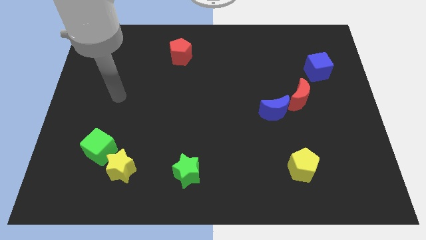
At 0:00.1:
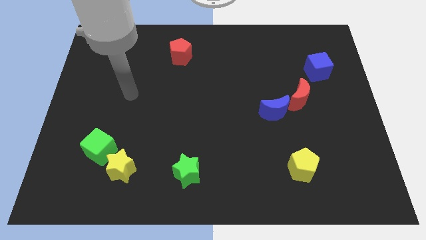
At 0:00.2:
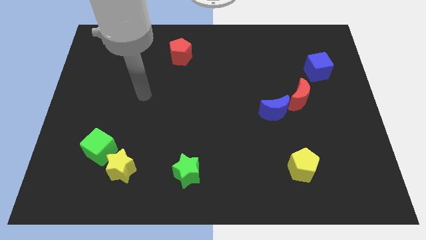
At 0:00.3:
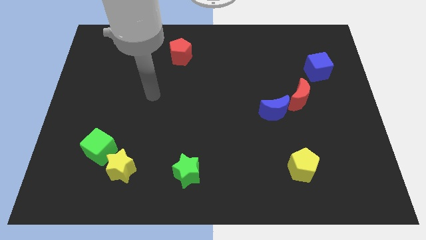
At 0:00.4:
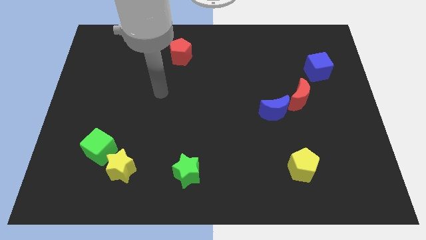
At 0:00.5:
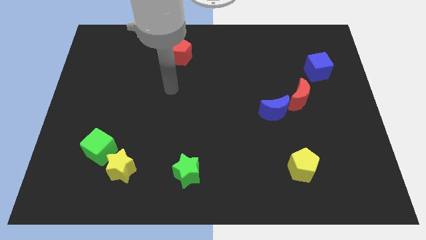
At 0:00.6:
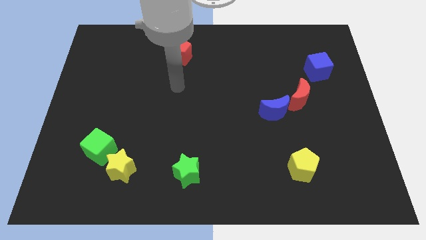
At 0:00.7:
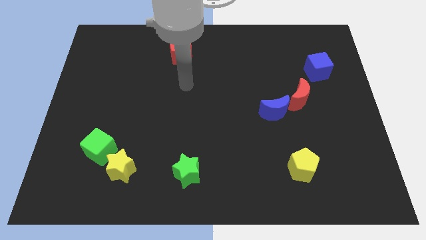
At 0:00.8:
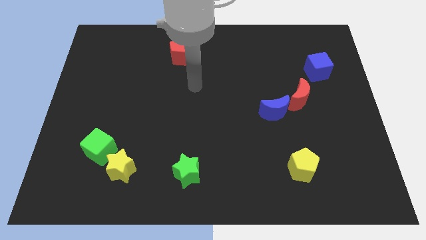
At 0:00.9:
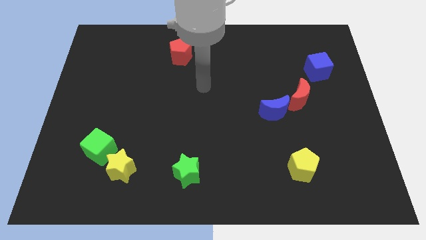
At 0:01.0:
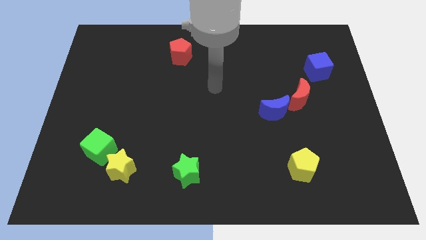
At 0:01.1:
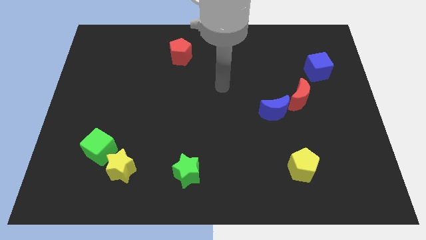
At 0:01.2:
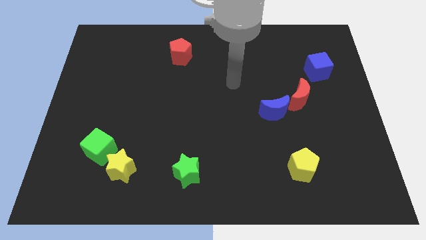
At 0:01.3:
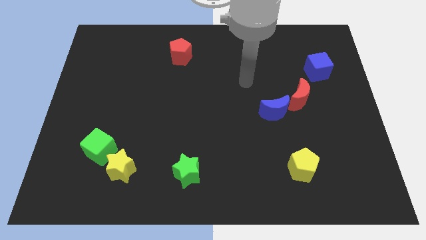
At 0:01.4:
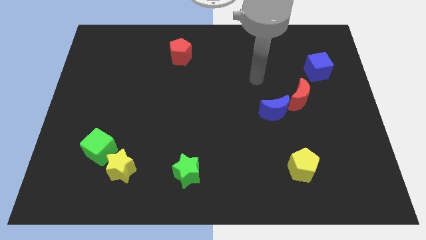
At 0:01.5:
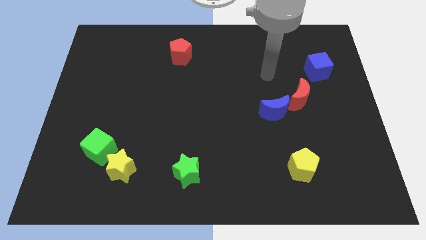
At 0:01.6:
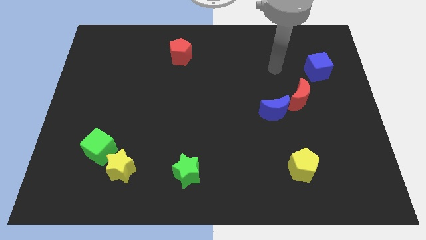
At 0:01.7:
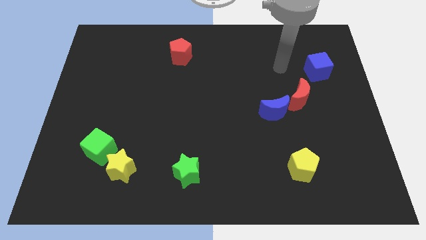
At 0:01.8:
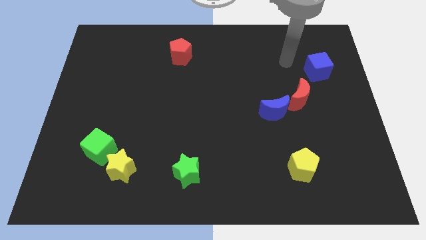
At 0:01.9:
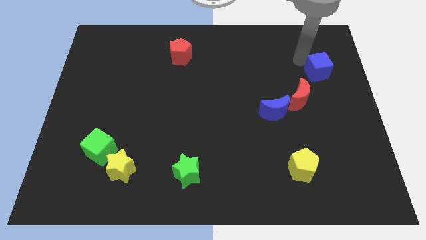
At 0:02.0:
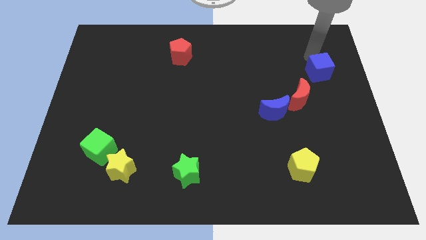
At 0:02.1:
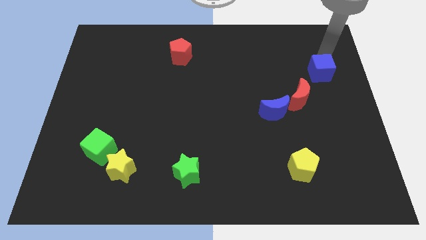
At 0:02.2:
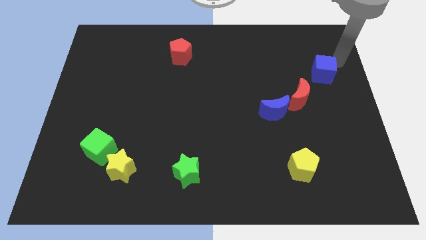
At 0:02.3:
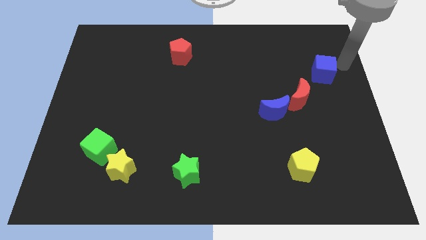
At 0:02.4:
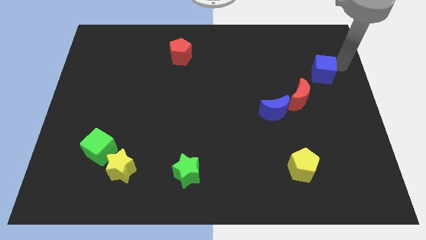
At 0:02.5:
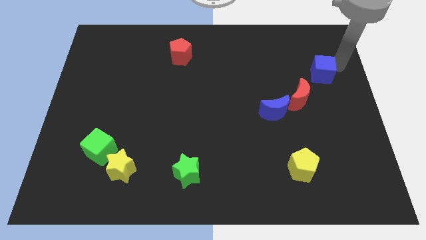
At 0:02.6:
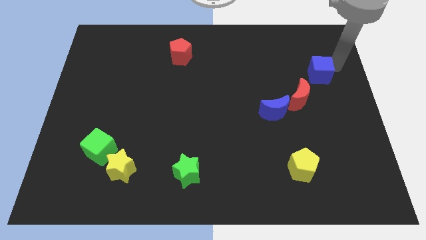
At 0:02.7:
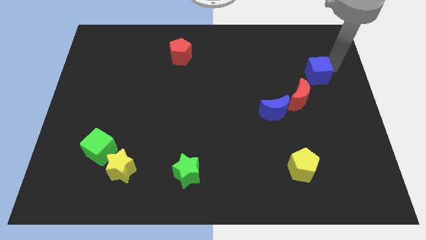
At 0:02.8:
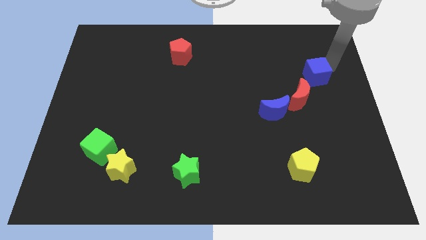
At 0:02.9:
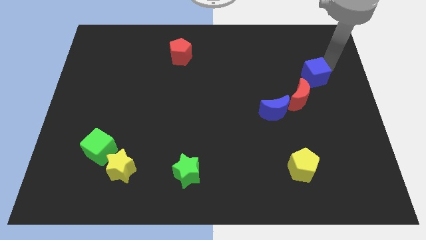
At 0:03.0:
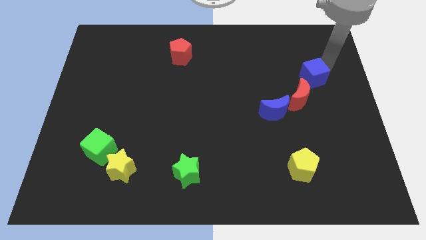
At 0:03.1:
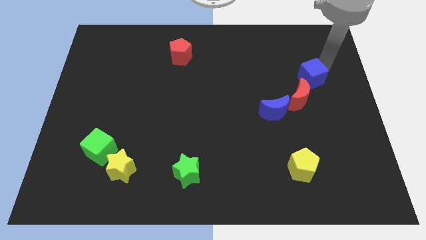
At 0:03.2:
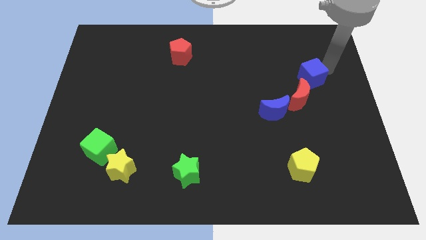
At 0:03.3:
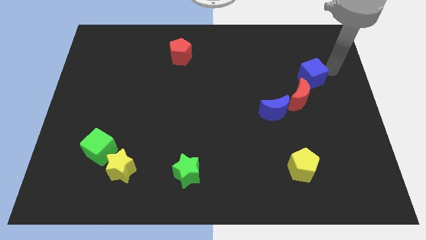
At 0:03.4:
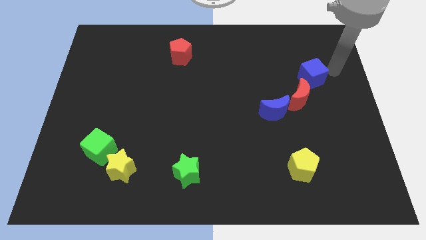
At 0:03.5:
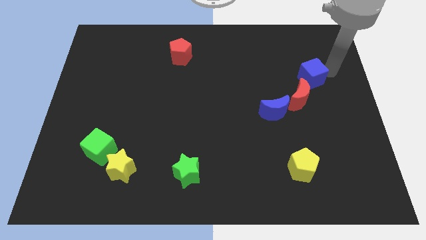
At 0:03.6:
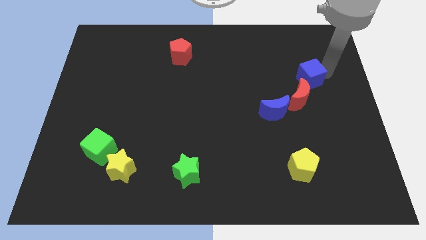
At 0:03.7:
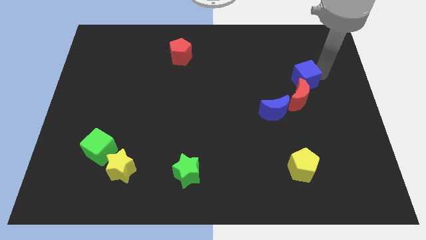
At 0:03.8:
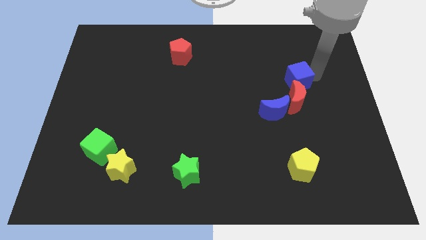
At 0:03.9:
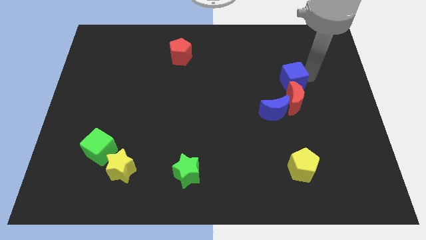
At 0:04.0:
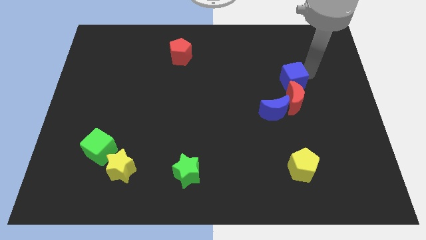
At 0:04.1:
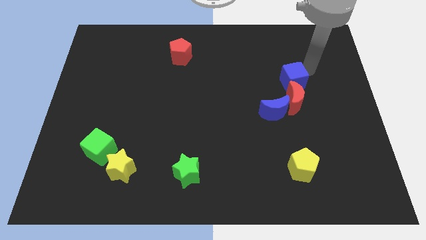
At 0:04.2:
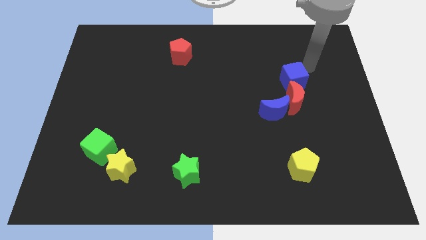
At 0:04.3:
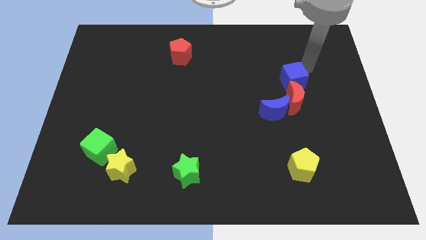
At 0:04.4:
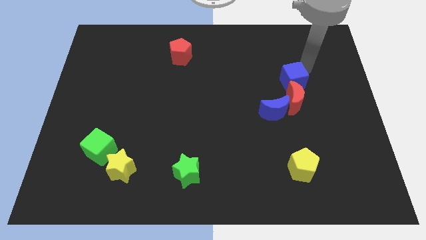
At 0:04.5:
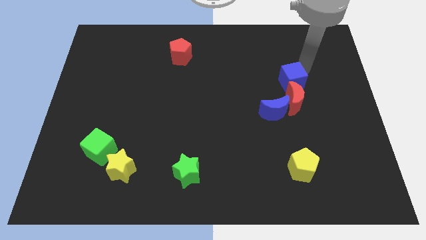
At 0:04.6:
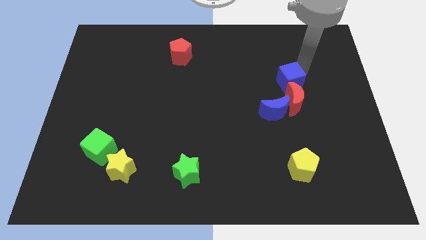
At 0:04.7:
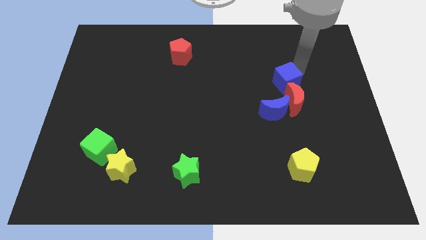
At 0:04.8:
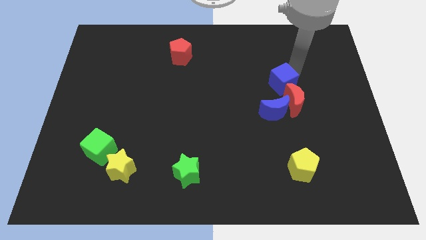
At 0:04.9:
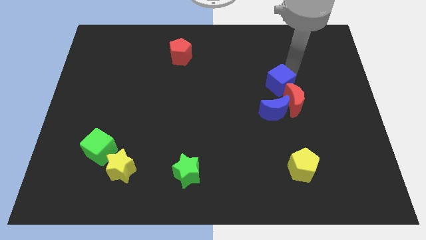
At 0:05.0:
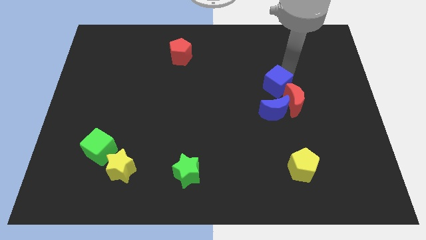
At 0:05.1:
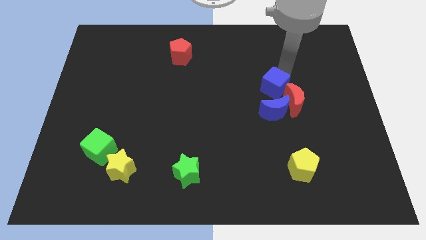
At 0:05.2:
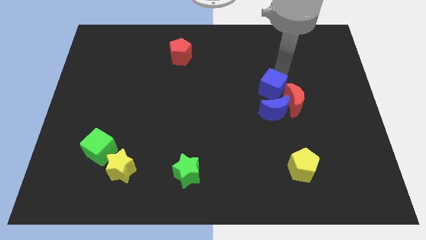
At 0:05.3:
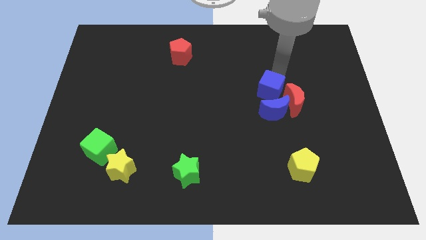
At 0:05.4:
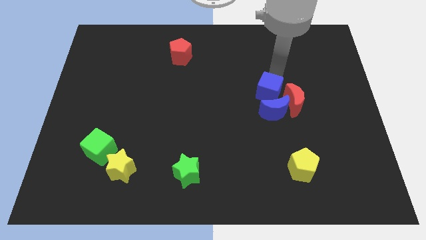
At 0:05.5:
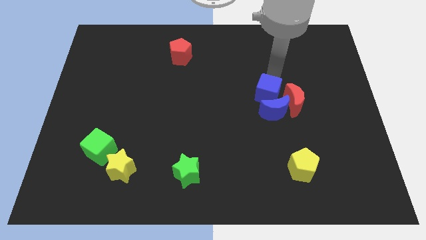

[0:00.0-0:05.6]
move the blue cube next to the blue moon

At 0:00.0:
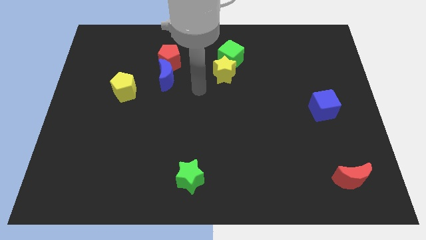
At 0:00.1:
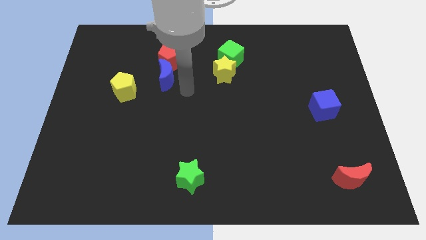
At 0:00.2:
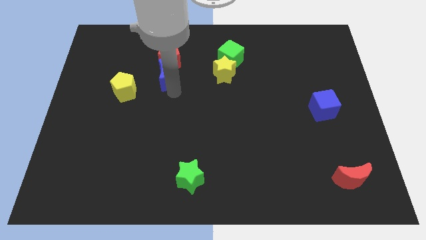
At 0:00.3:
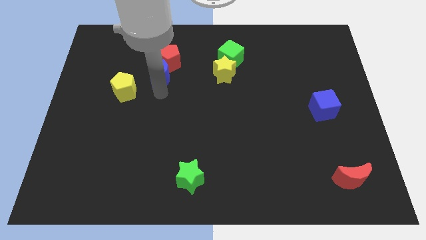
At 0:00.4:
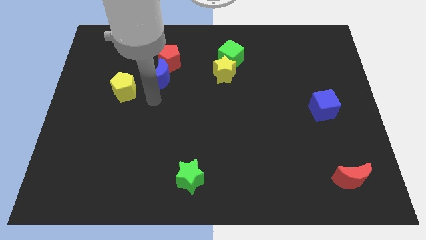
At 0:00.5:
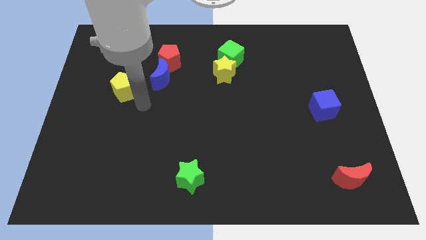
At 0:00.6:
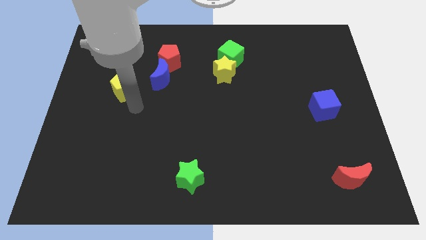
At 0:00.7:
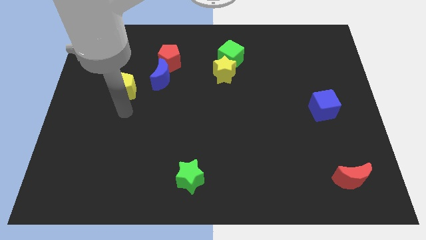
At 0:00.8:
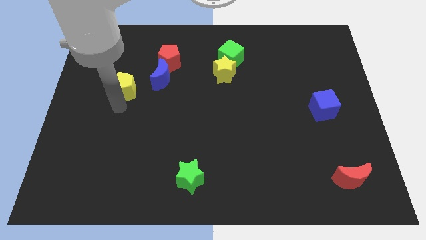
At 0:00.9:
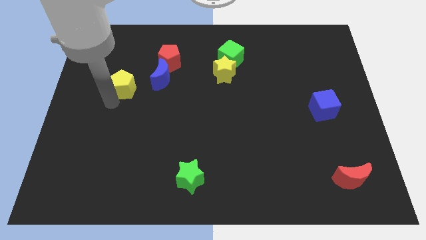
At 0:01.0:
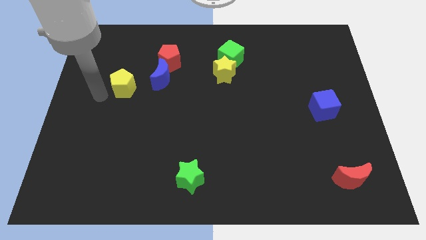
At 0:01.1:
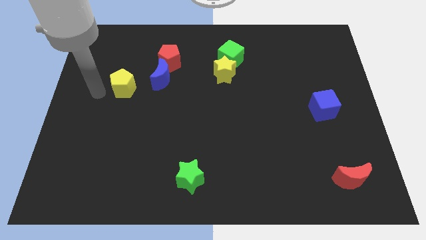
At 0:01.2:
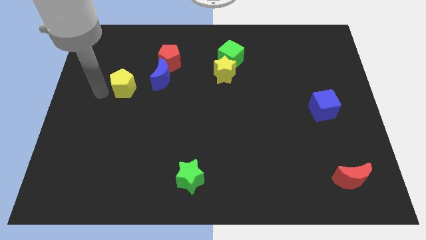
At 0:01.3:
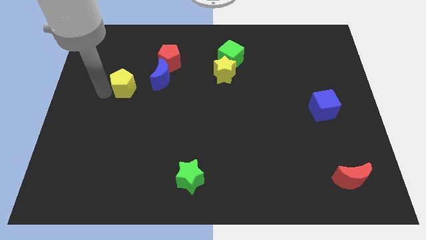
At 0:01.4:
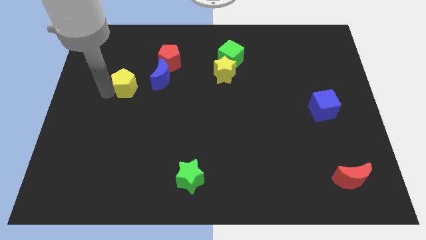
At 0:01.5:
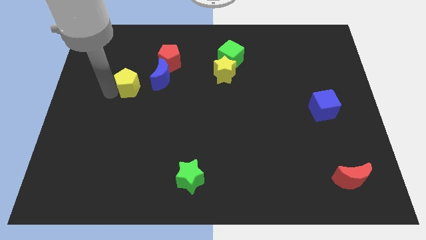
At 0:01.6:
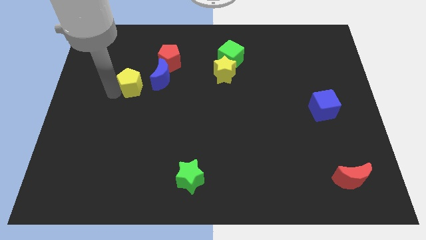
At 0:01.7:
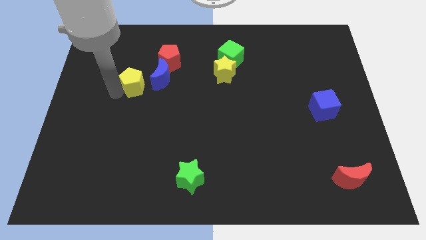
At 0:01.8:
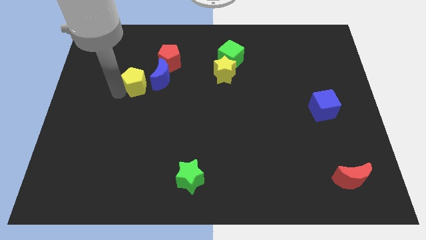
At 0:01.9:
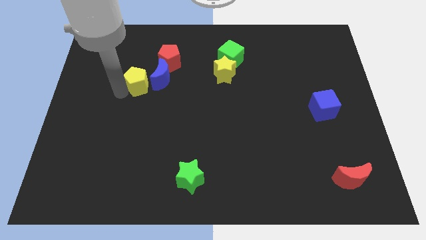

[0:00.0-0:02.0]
move the yellow pentagon next to the blue moon

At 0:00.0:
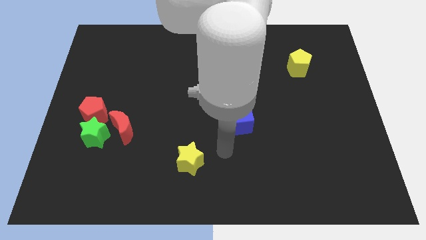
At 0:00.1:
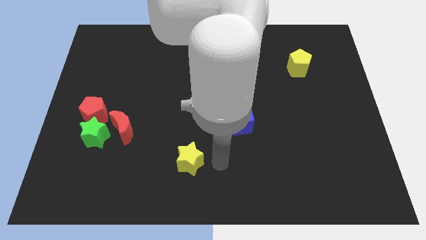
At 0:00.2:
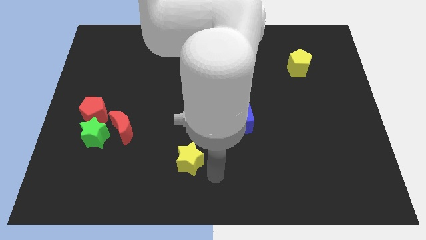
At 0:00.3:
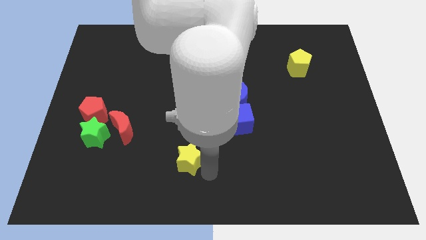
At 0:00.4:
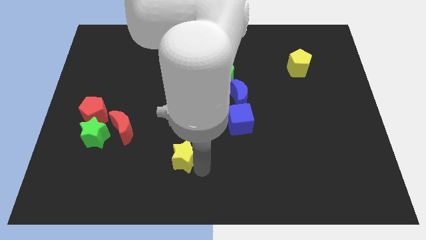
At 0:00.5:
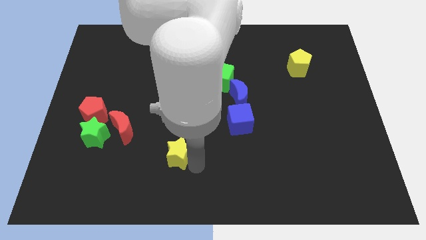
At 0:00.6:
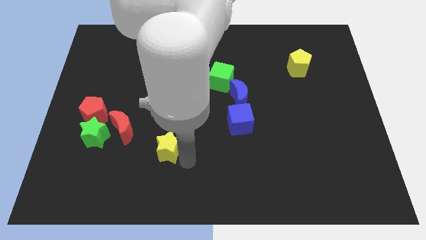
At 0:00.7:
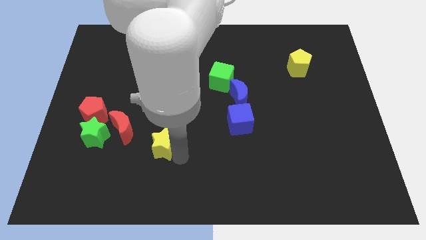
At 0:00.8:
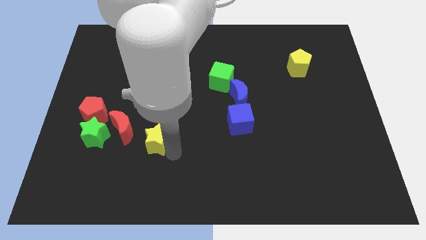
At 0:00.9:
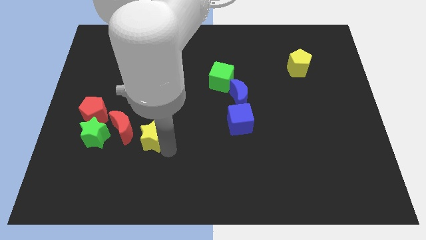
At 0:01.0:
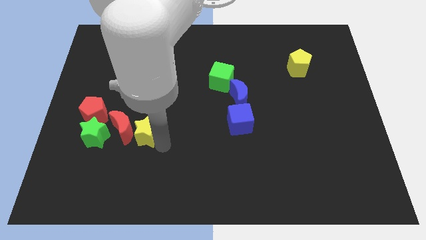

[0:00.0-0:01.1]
push the yellow star to the red moon
